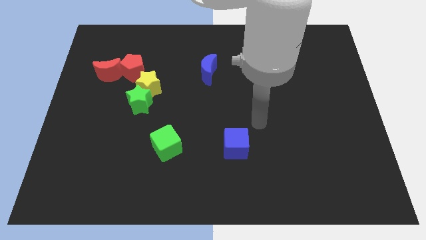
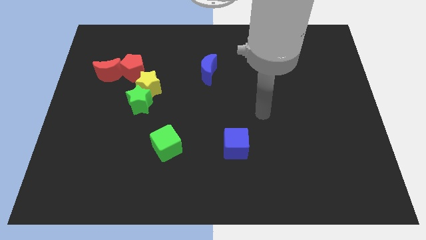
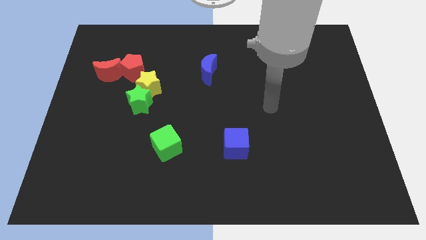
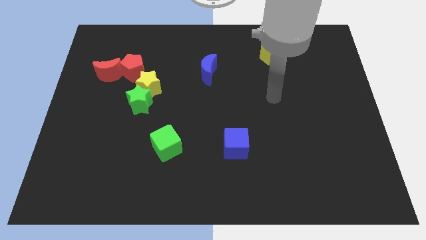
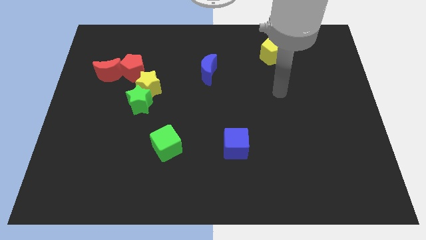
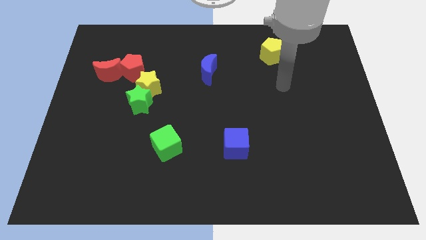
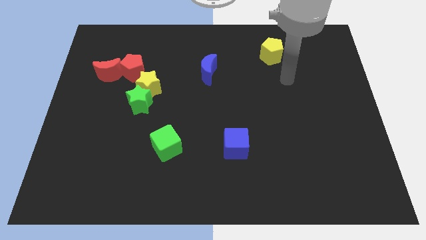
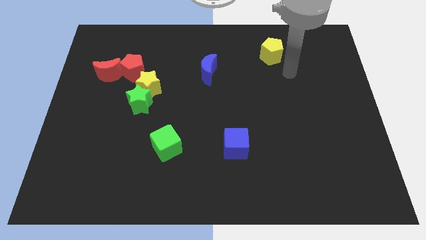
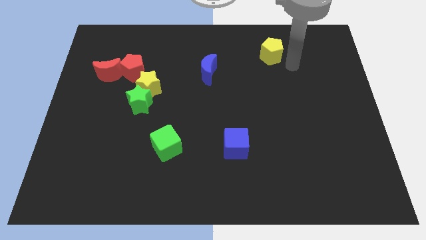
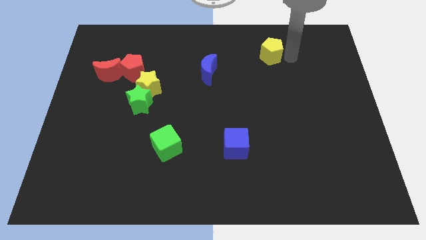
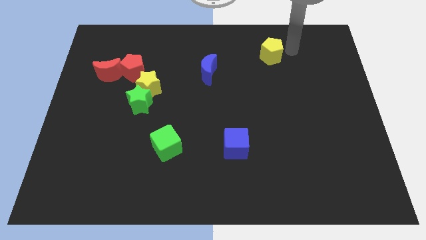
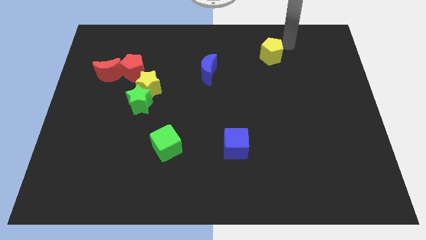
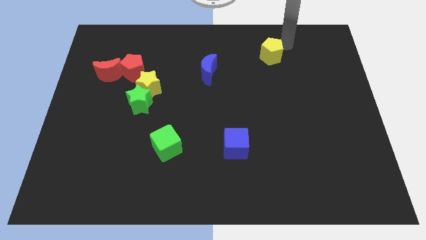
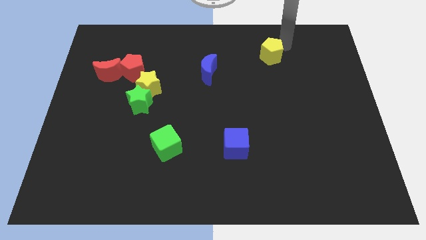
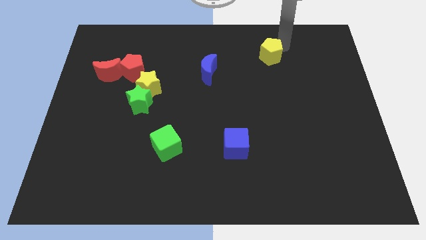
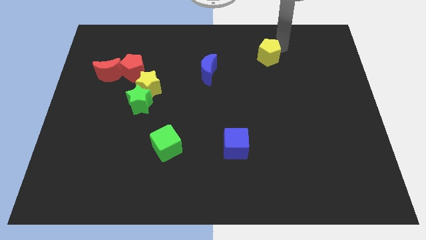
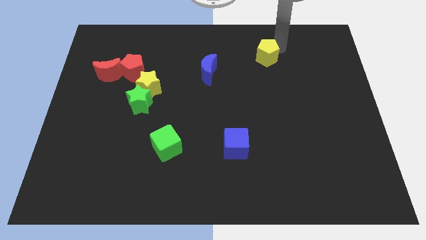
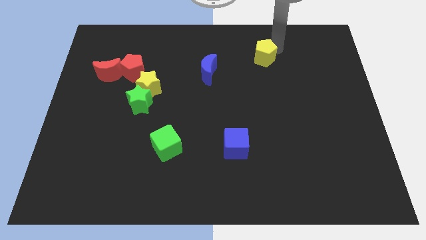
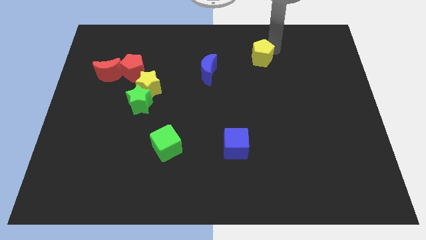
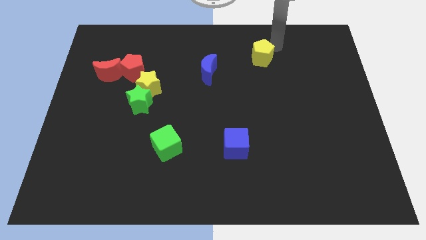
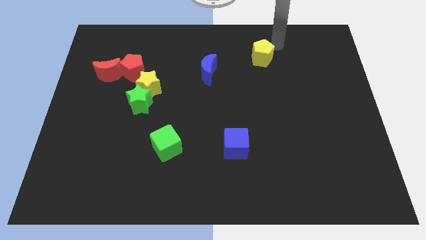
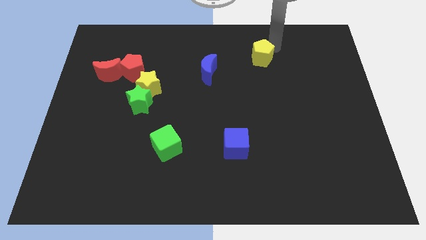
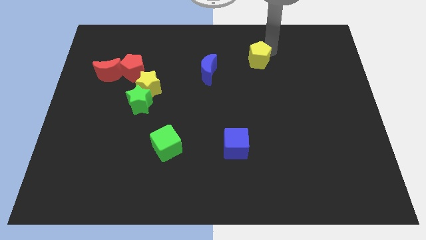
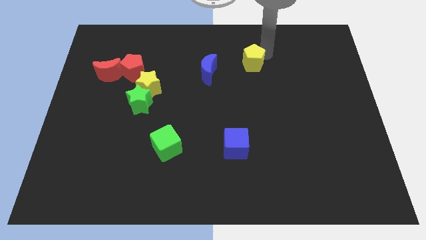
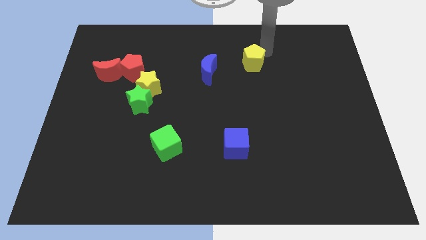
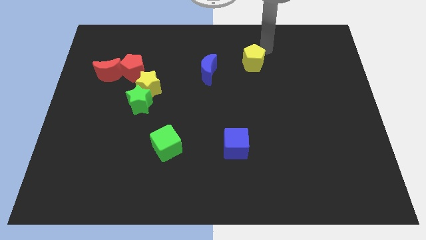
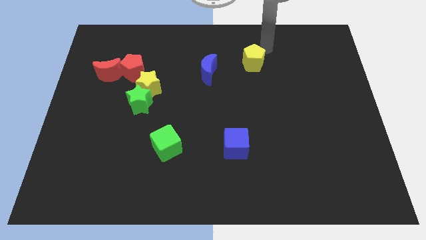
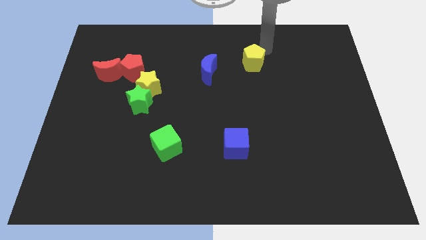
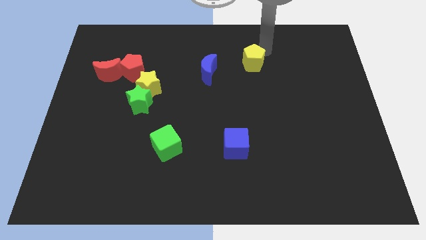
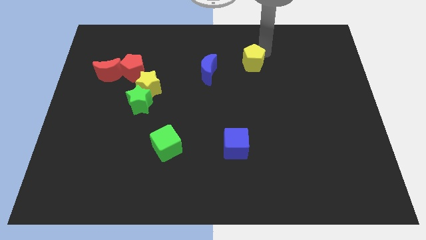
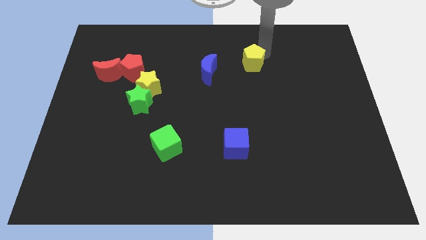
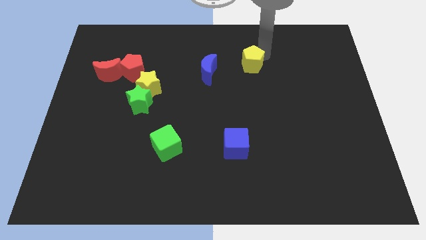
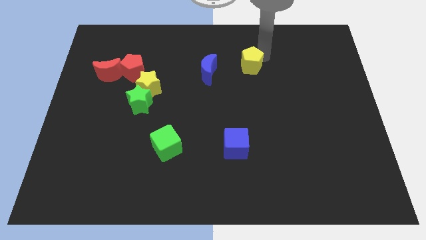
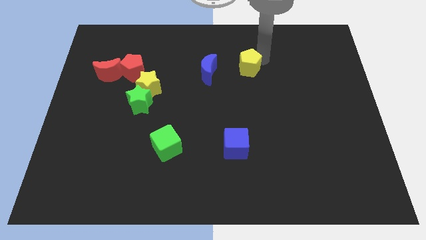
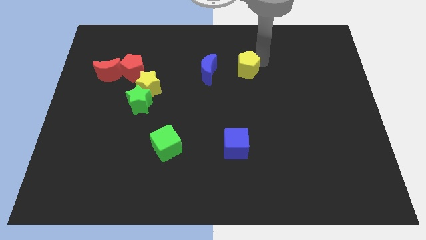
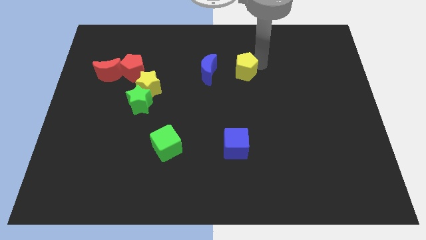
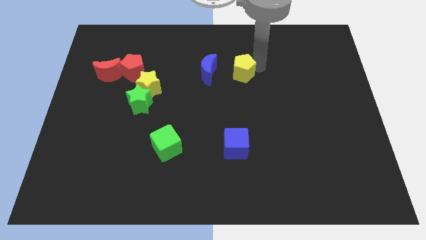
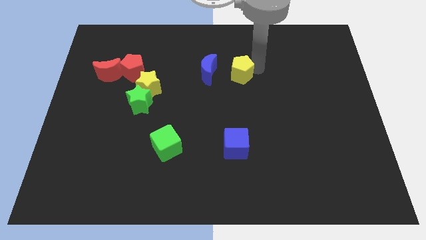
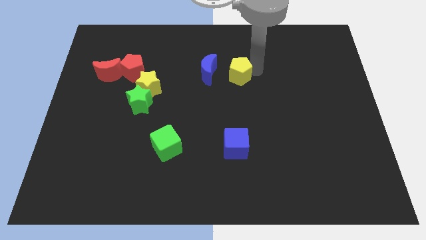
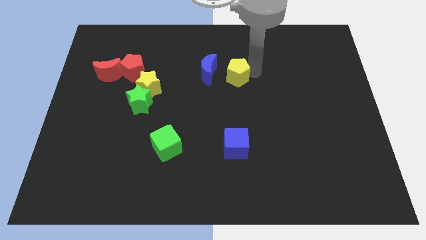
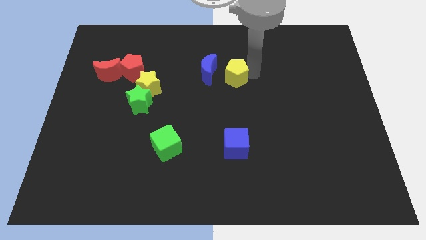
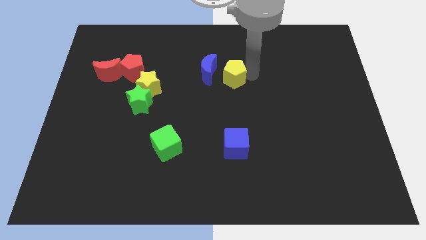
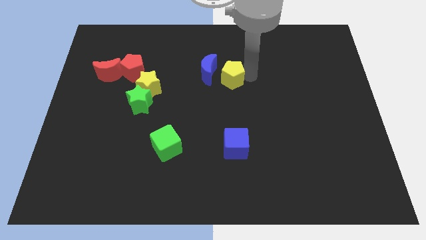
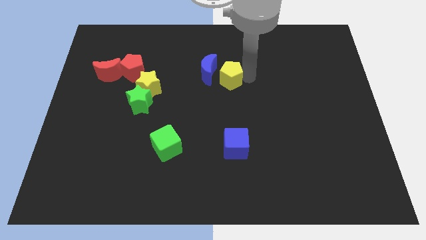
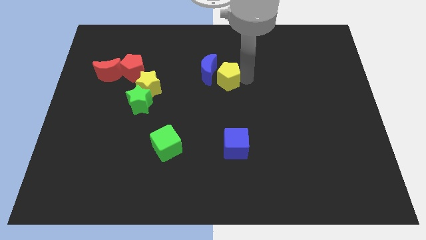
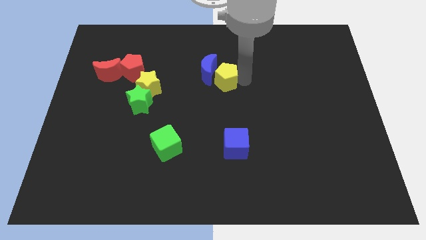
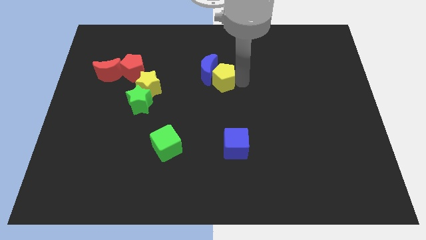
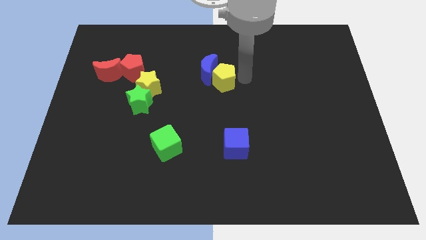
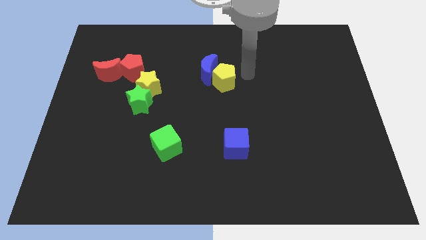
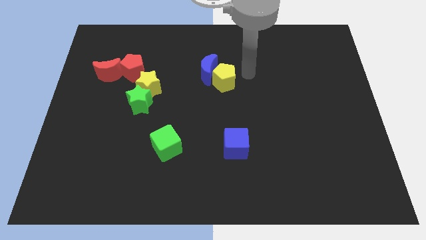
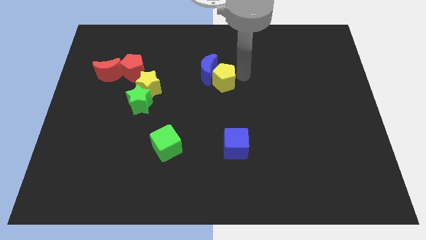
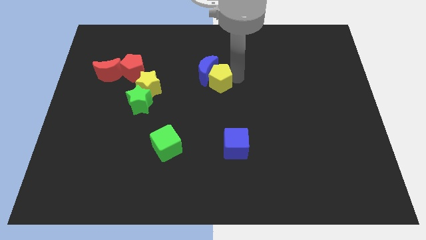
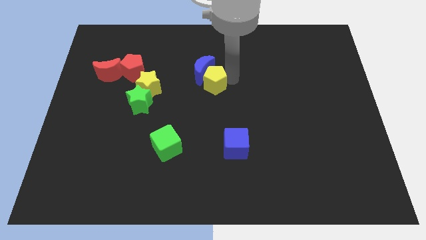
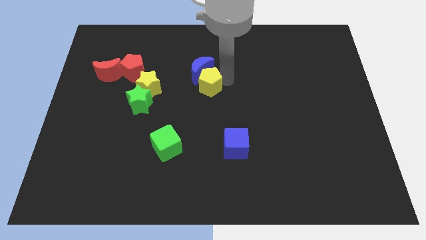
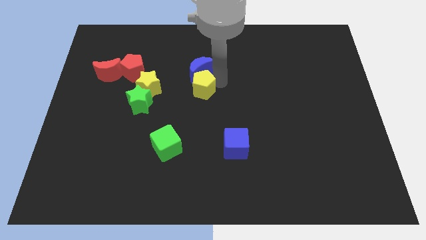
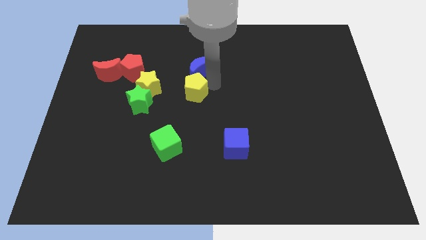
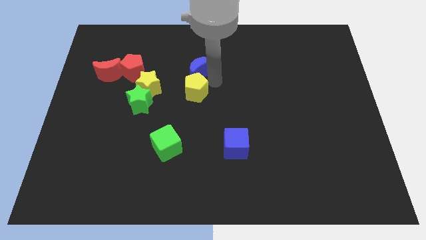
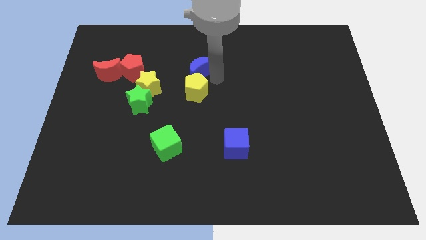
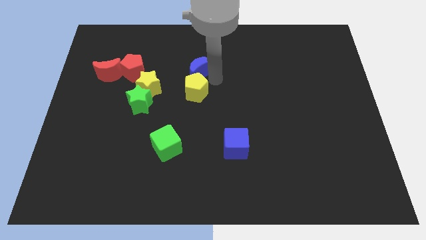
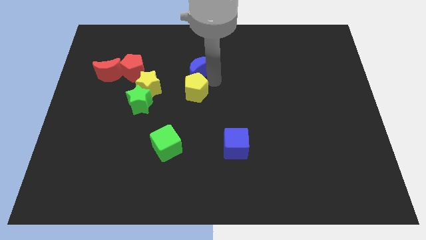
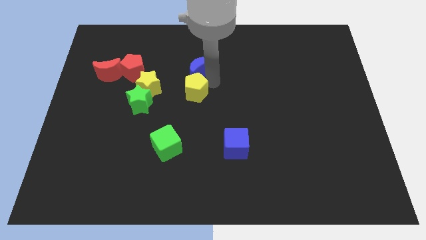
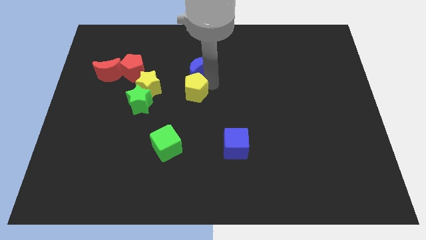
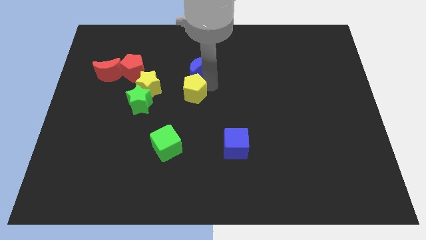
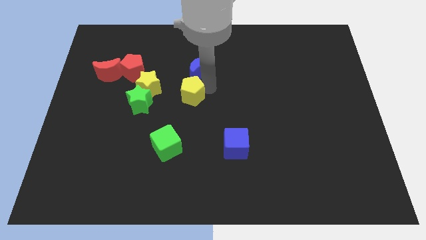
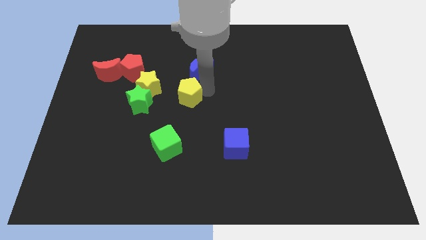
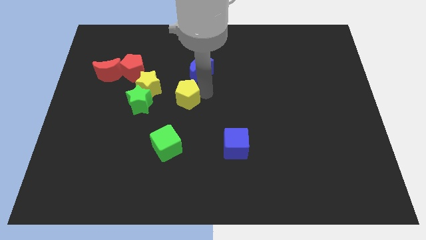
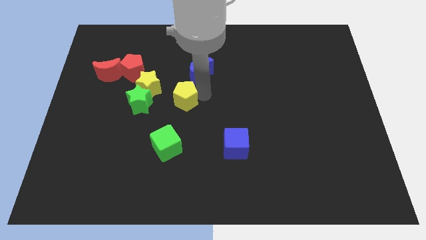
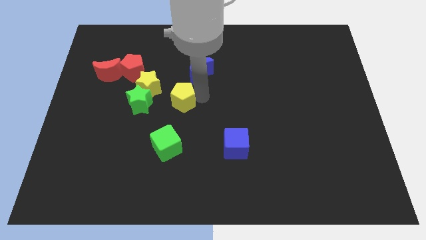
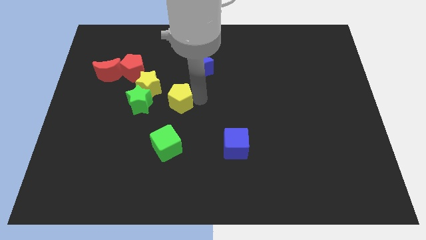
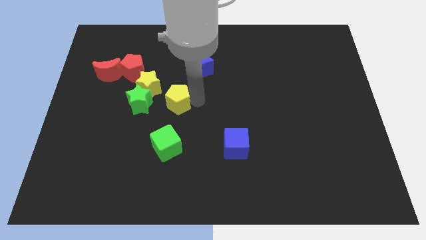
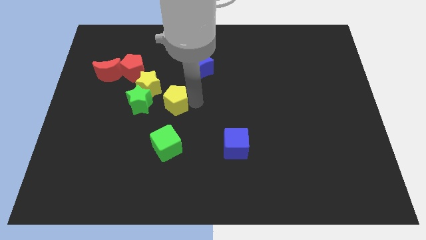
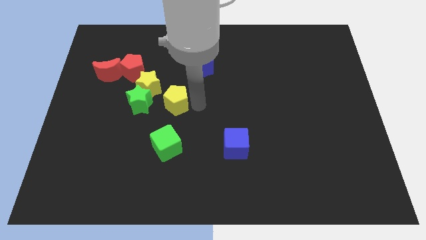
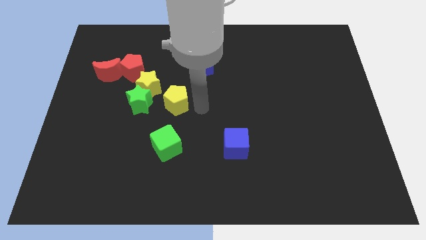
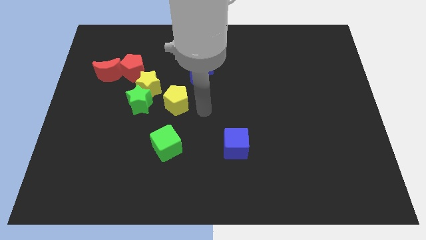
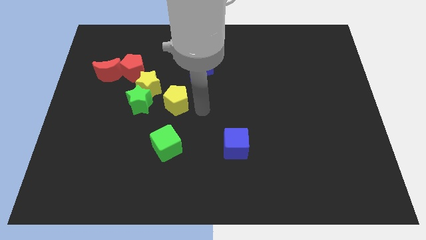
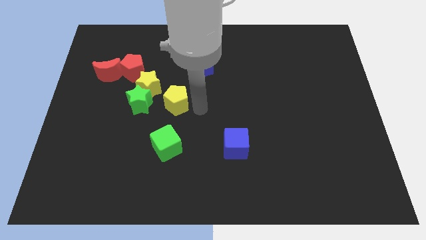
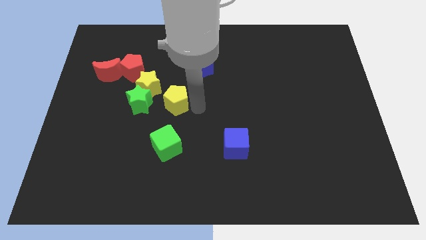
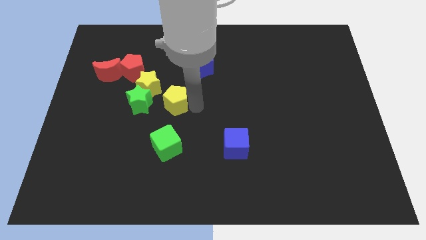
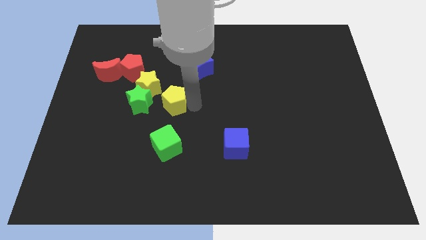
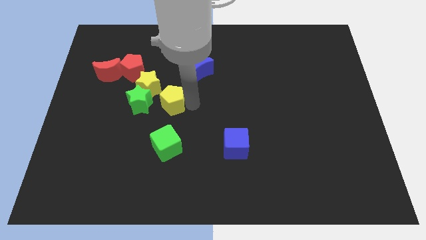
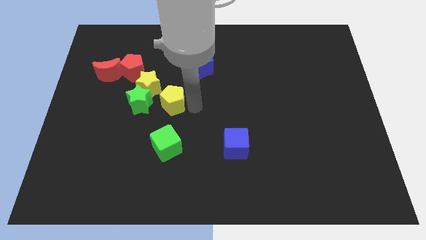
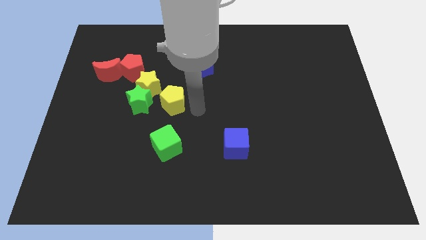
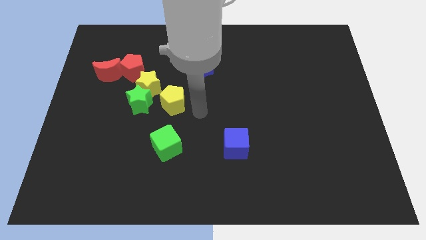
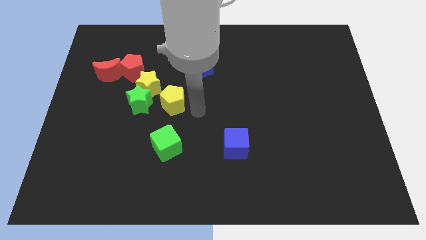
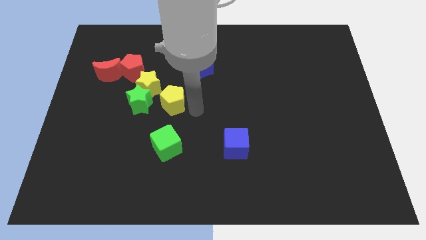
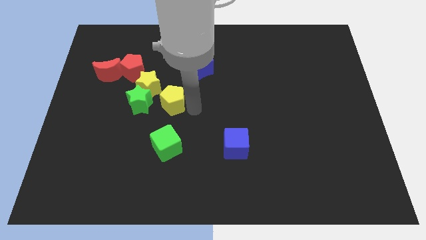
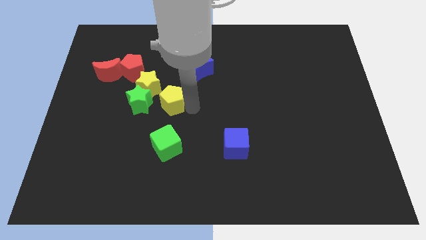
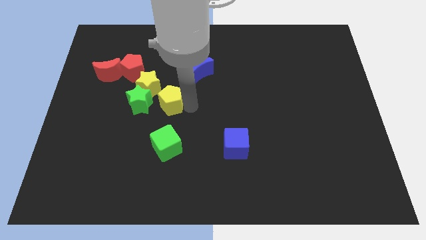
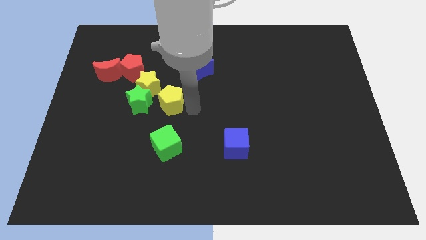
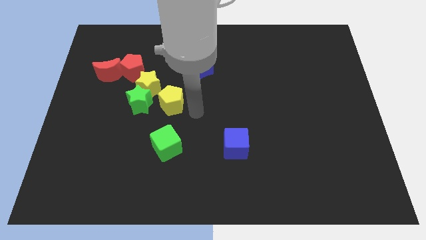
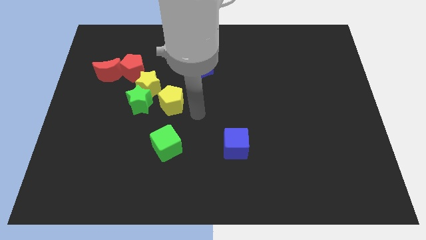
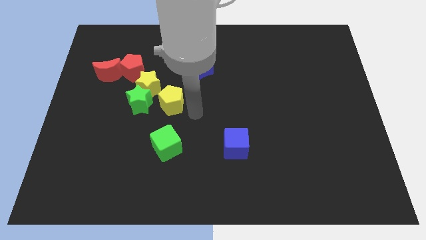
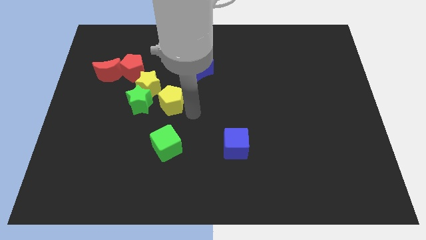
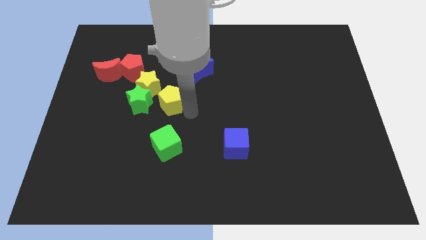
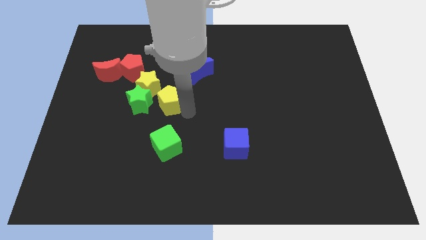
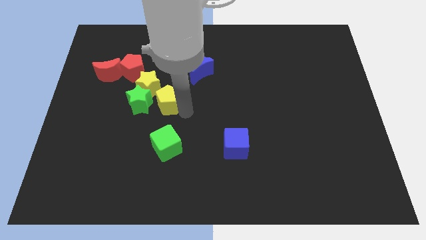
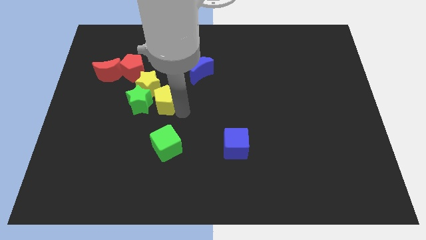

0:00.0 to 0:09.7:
move the yellow pentagon next to the green star
